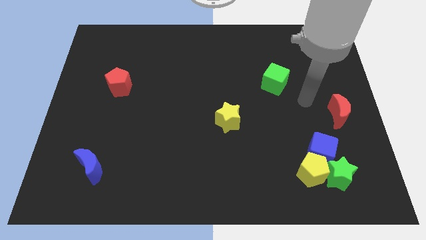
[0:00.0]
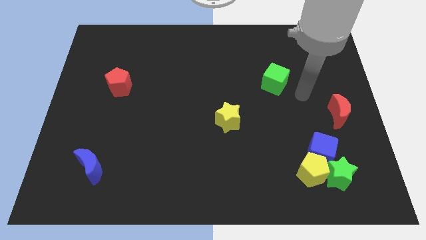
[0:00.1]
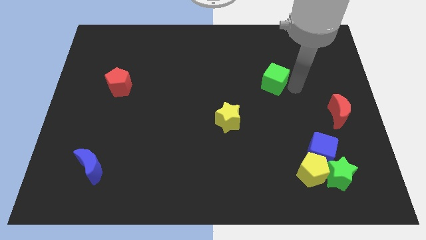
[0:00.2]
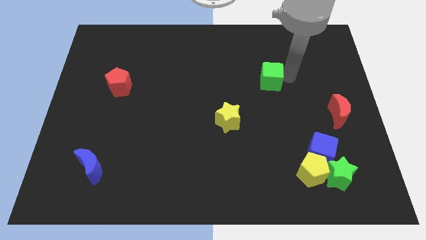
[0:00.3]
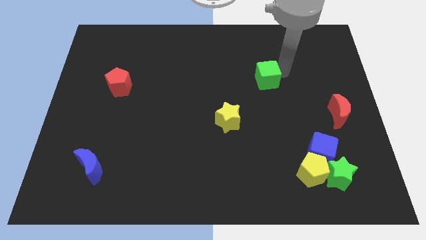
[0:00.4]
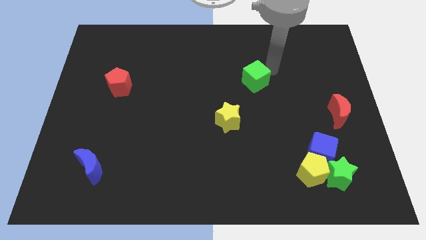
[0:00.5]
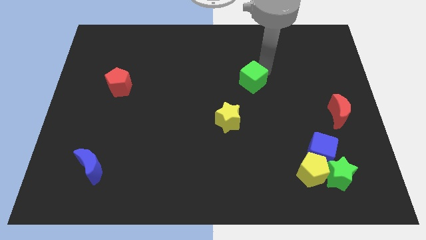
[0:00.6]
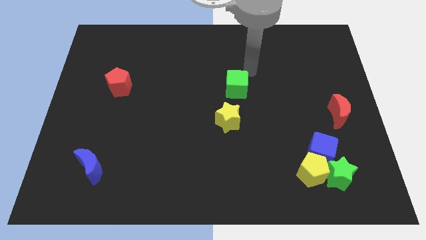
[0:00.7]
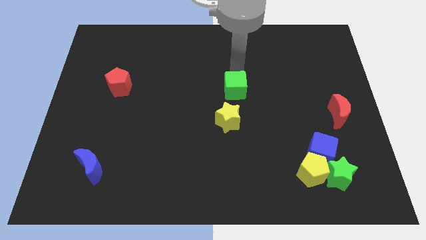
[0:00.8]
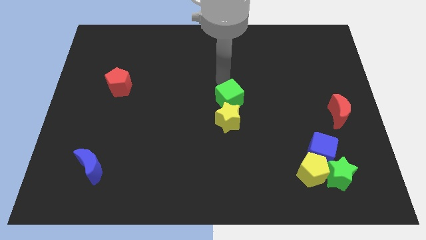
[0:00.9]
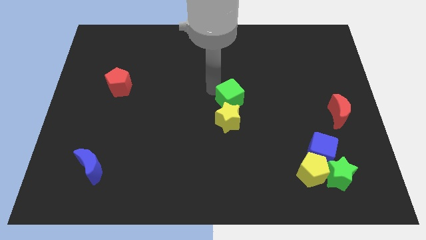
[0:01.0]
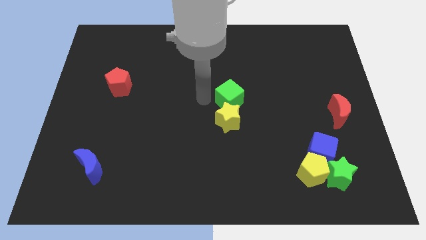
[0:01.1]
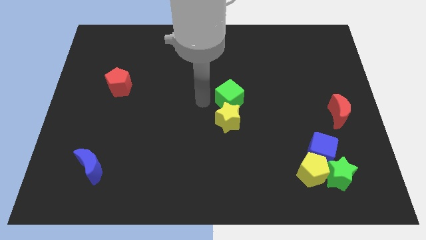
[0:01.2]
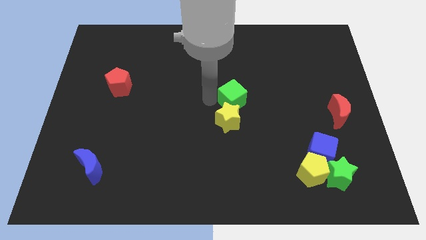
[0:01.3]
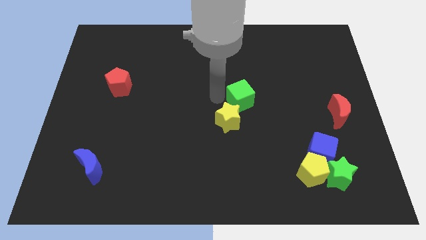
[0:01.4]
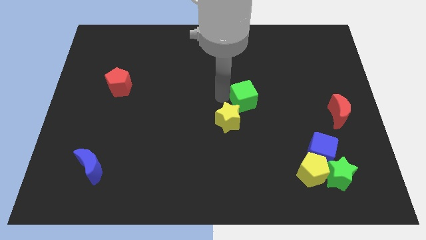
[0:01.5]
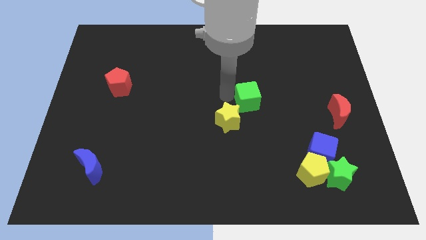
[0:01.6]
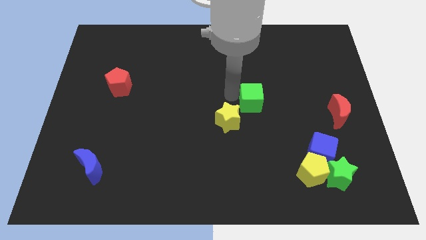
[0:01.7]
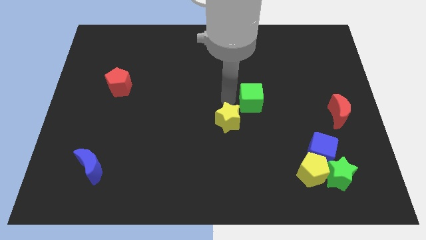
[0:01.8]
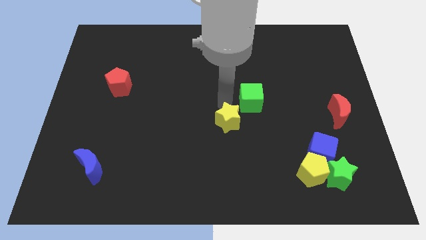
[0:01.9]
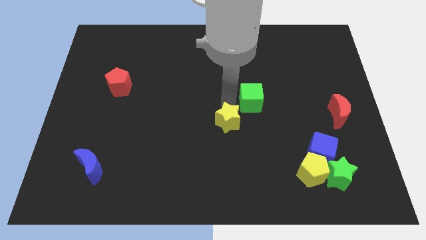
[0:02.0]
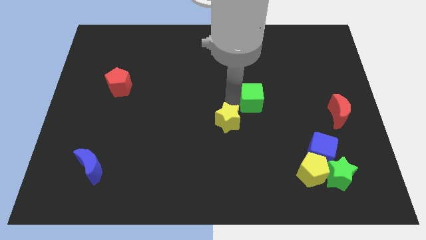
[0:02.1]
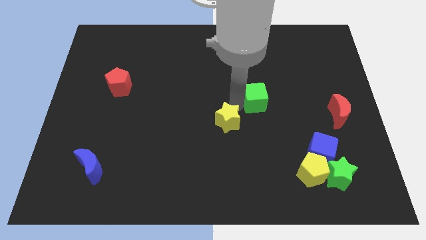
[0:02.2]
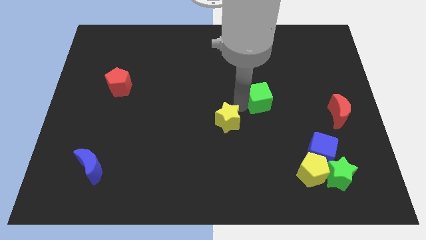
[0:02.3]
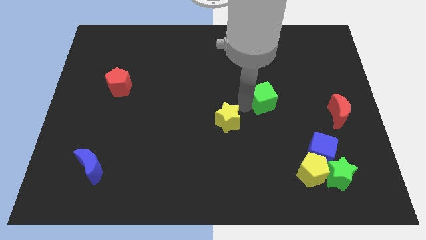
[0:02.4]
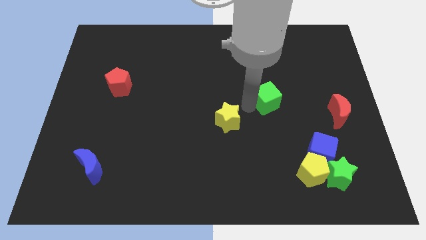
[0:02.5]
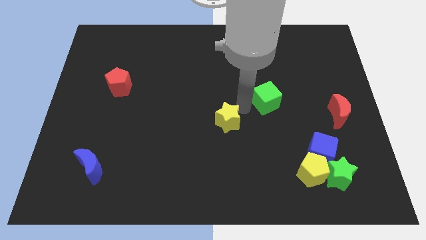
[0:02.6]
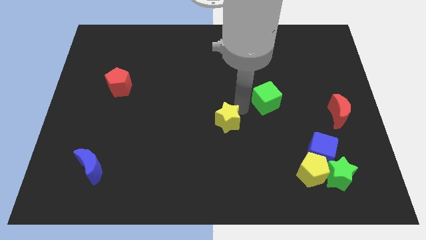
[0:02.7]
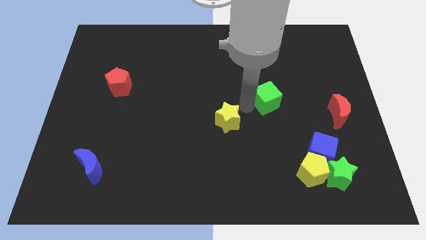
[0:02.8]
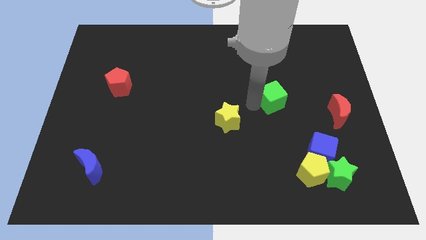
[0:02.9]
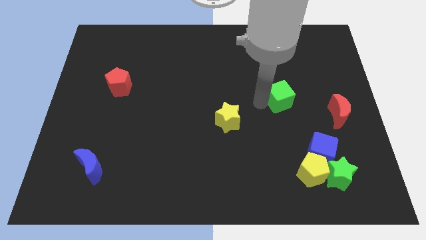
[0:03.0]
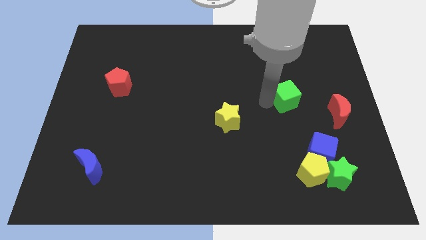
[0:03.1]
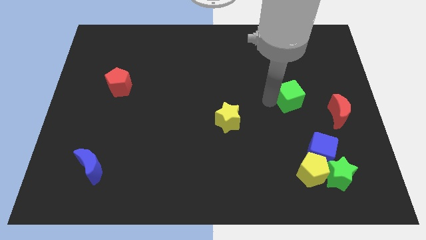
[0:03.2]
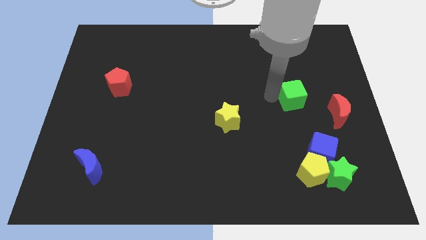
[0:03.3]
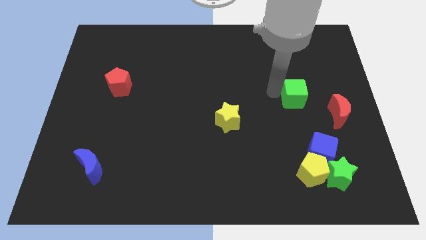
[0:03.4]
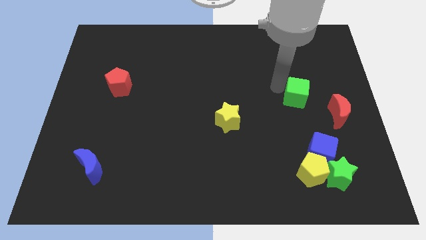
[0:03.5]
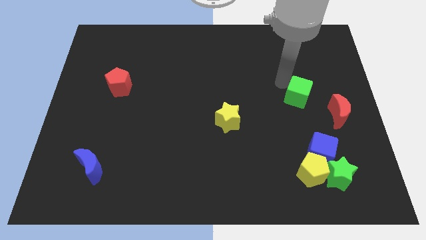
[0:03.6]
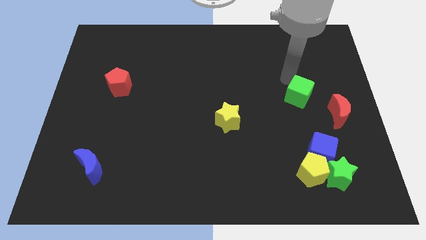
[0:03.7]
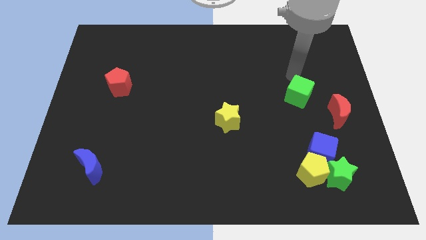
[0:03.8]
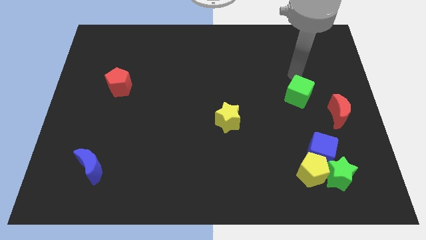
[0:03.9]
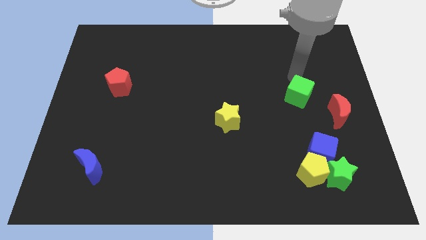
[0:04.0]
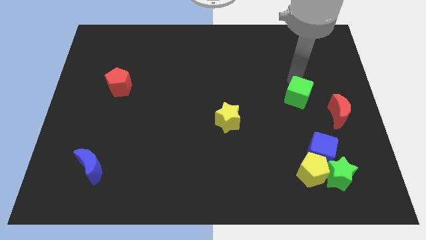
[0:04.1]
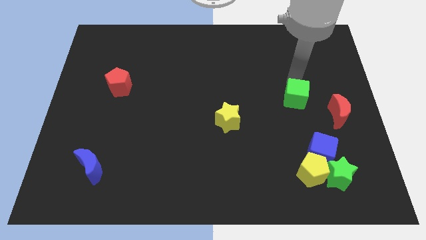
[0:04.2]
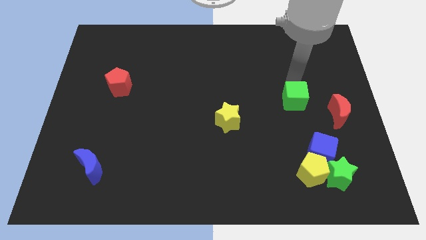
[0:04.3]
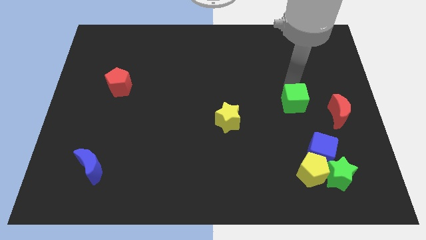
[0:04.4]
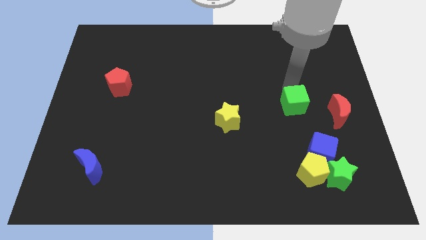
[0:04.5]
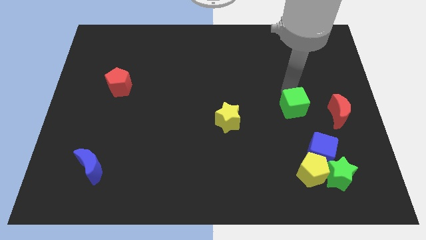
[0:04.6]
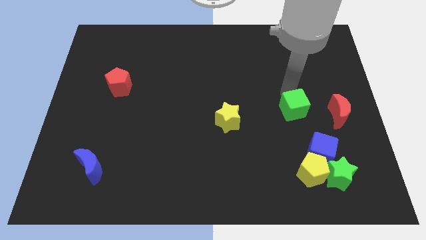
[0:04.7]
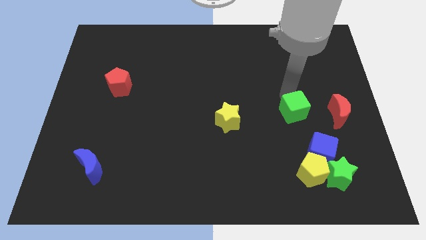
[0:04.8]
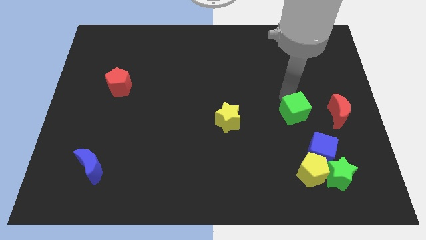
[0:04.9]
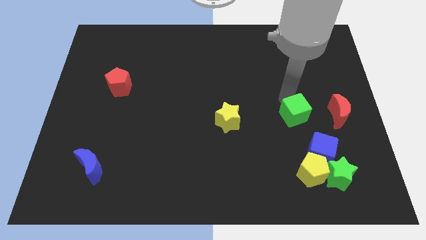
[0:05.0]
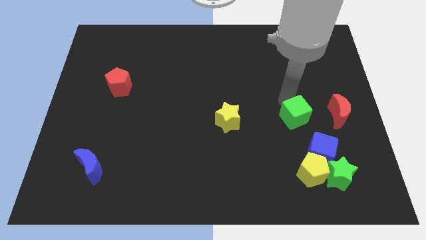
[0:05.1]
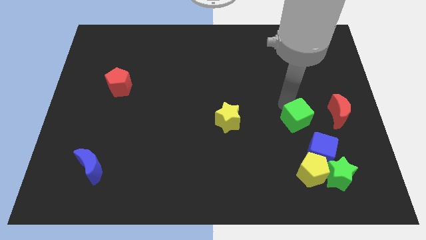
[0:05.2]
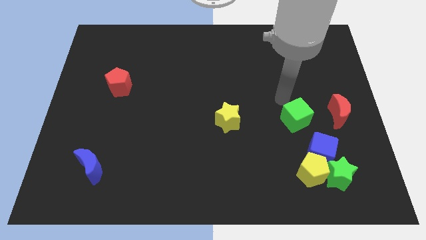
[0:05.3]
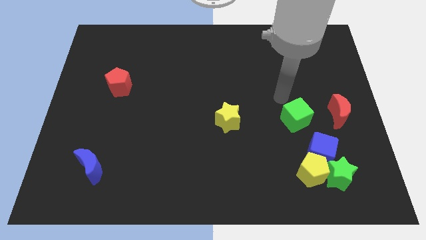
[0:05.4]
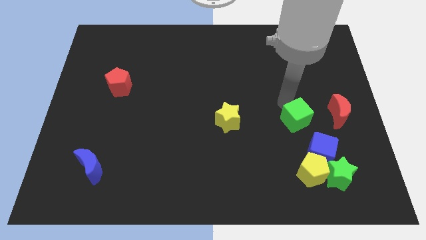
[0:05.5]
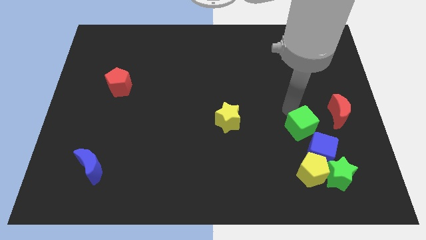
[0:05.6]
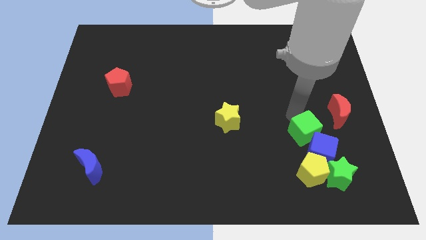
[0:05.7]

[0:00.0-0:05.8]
put the green cube close to the blue cube

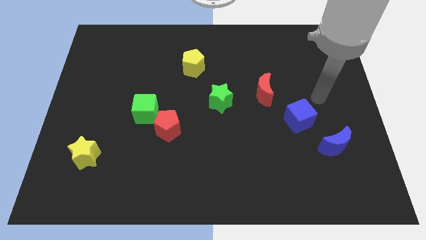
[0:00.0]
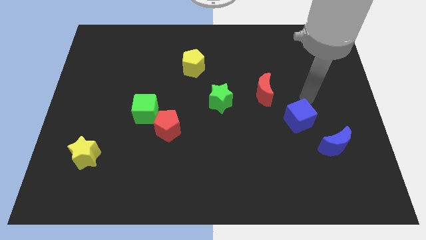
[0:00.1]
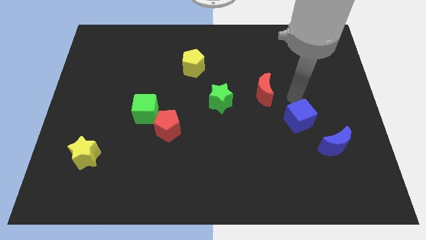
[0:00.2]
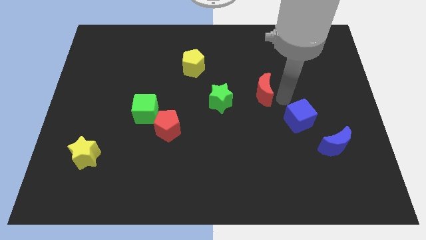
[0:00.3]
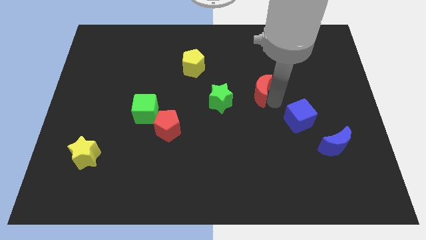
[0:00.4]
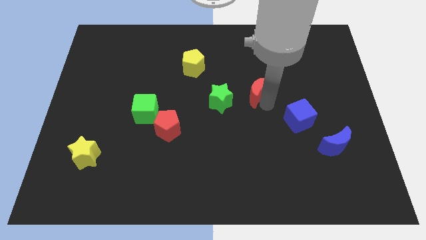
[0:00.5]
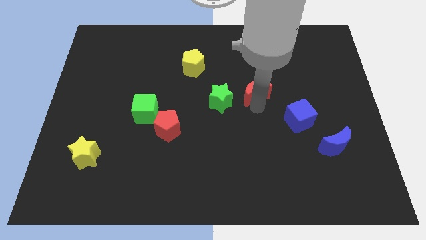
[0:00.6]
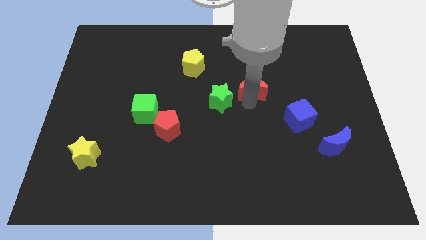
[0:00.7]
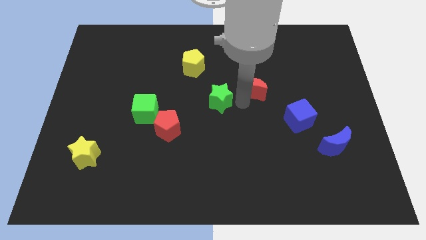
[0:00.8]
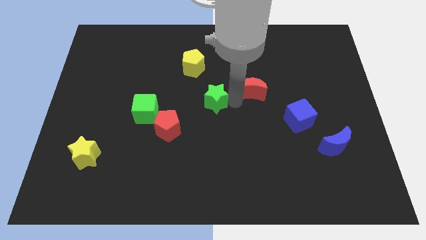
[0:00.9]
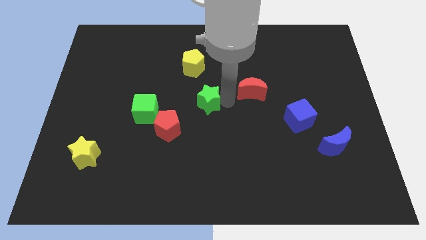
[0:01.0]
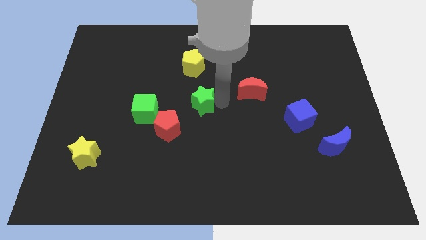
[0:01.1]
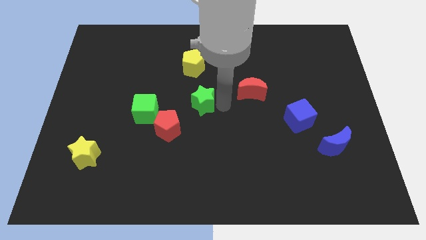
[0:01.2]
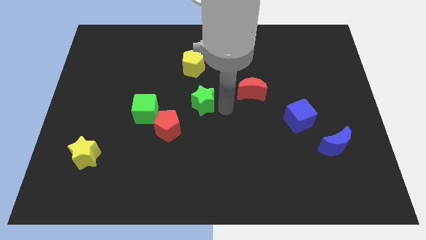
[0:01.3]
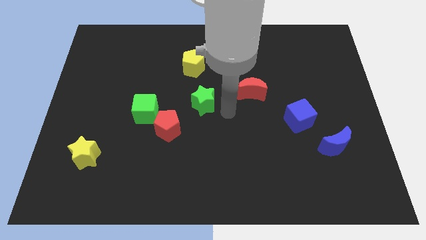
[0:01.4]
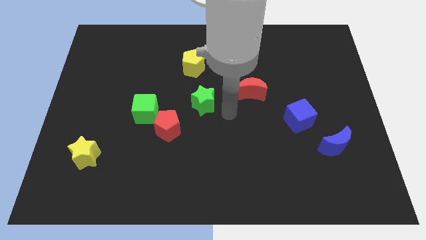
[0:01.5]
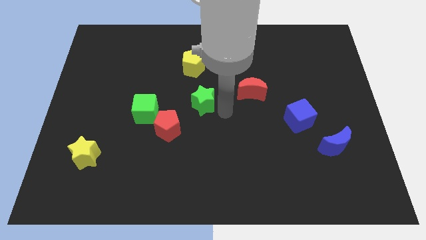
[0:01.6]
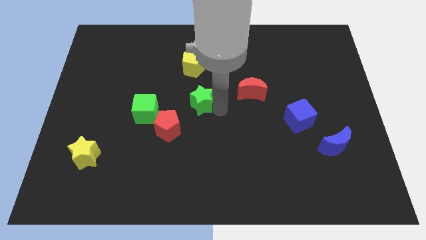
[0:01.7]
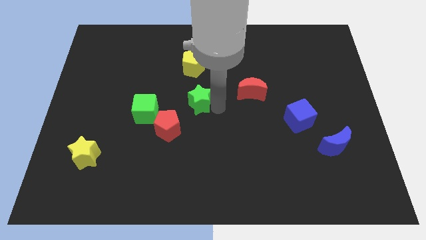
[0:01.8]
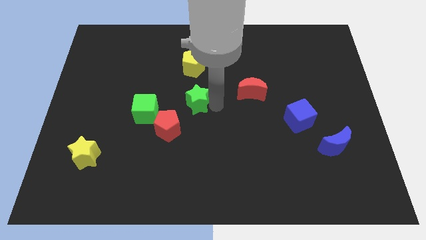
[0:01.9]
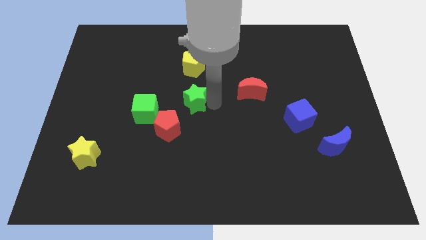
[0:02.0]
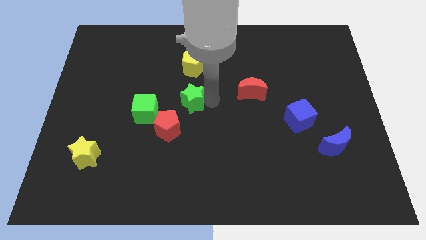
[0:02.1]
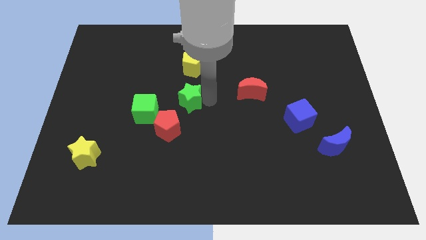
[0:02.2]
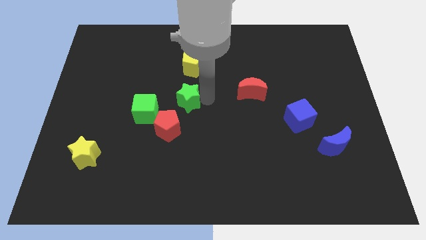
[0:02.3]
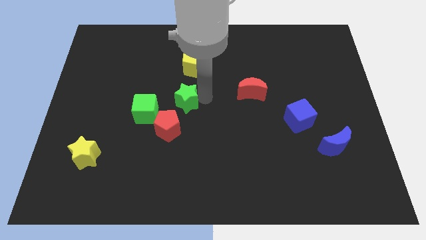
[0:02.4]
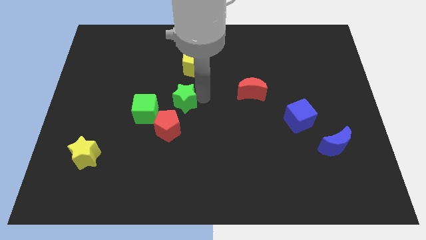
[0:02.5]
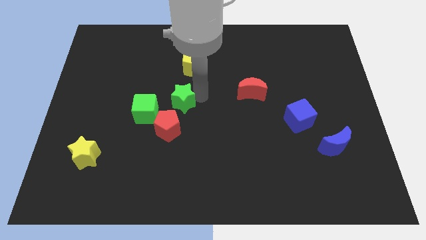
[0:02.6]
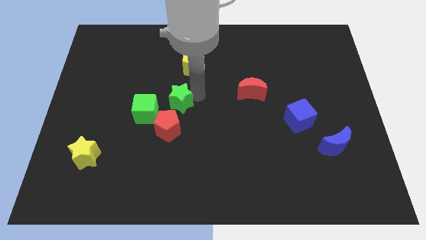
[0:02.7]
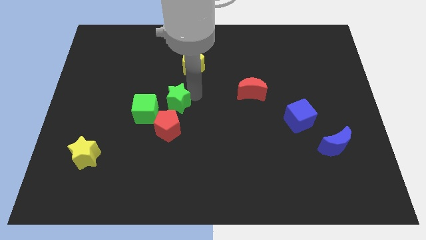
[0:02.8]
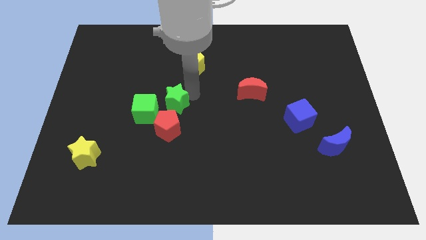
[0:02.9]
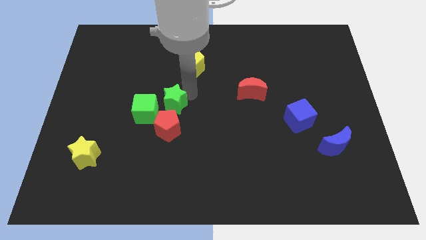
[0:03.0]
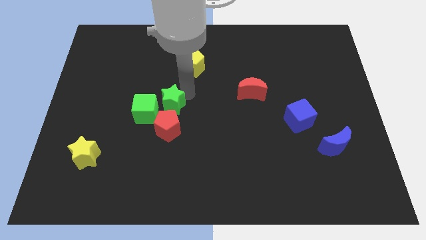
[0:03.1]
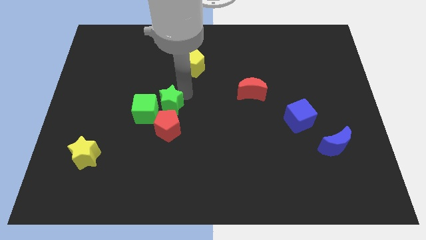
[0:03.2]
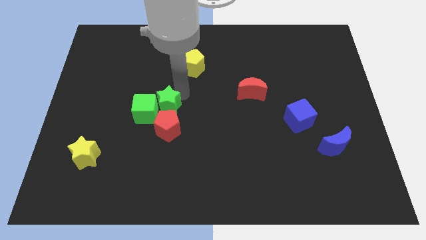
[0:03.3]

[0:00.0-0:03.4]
put the green star close to the green cube
